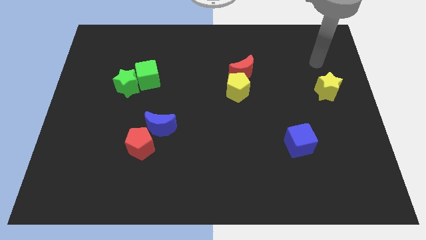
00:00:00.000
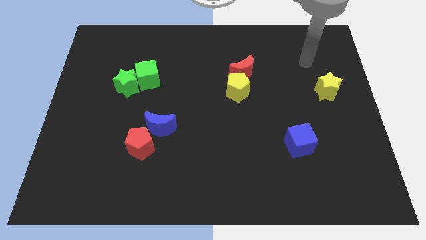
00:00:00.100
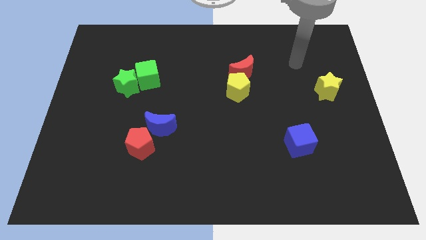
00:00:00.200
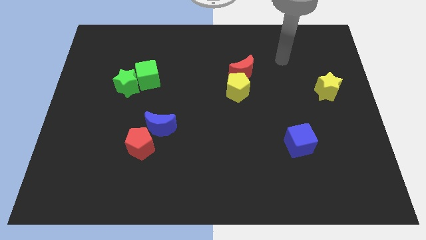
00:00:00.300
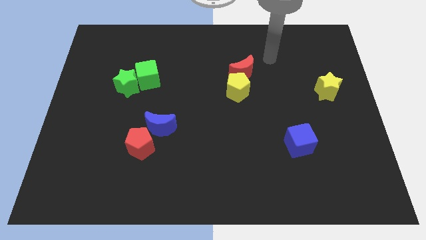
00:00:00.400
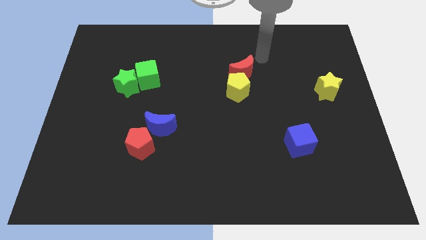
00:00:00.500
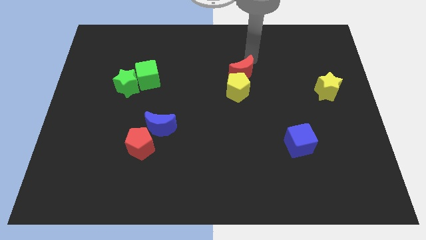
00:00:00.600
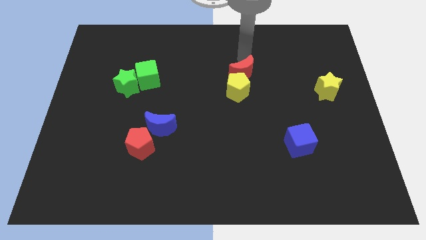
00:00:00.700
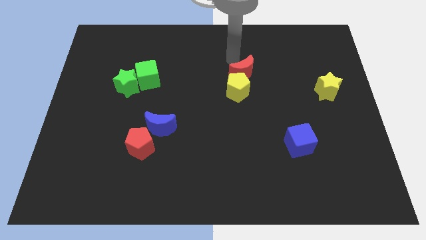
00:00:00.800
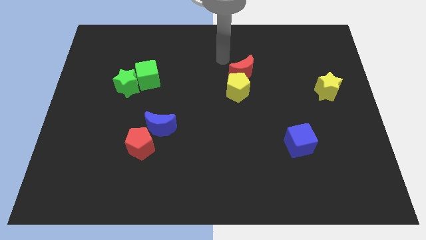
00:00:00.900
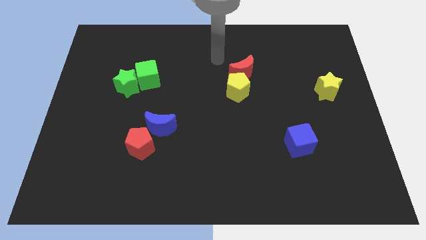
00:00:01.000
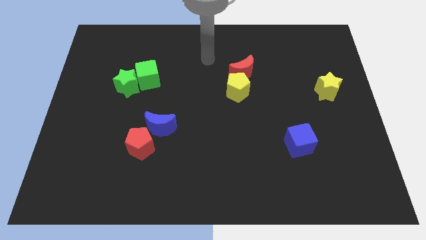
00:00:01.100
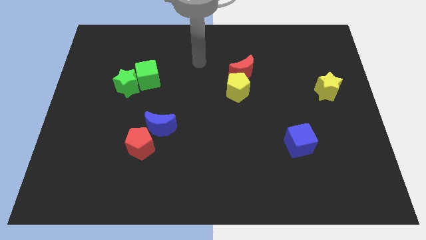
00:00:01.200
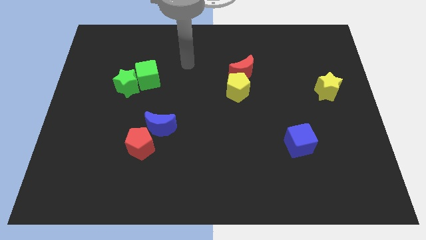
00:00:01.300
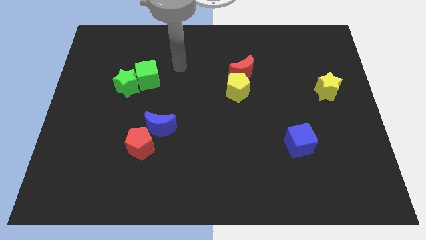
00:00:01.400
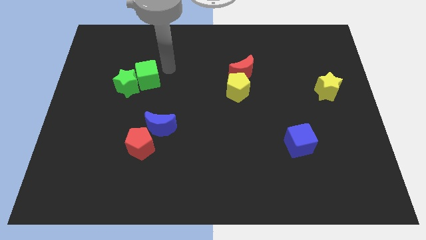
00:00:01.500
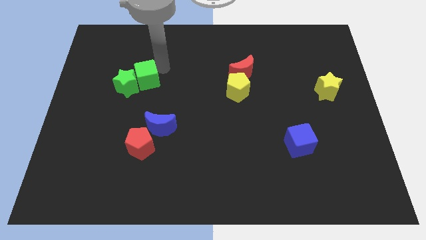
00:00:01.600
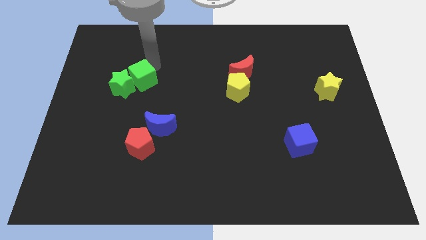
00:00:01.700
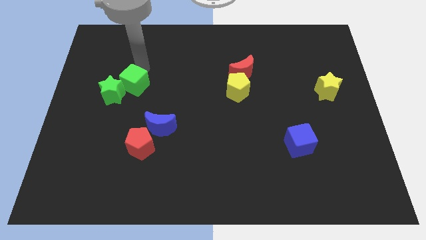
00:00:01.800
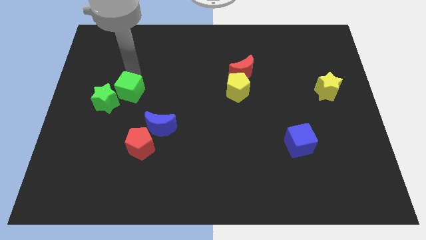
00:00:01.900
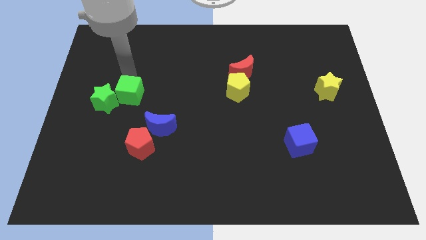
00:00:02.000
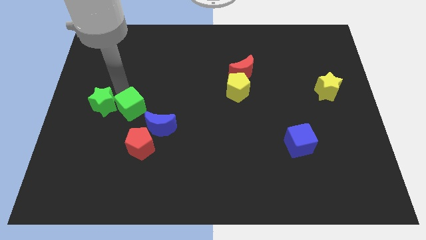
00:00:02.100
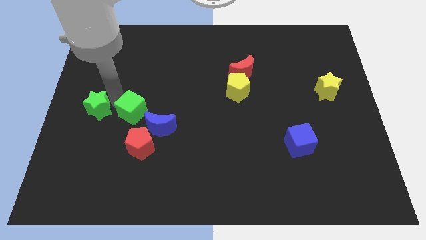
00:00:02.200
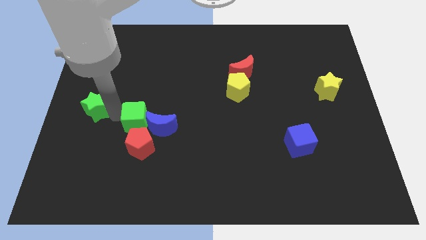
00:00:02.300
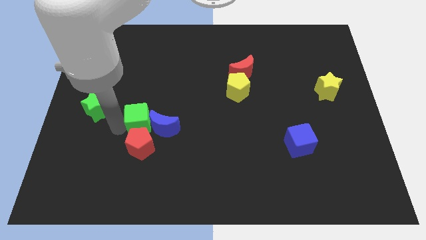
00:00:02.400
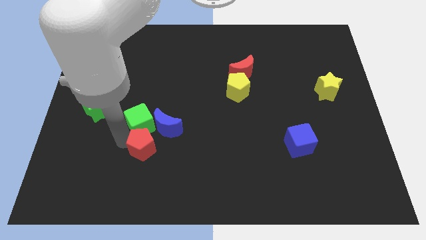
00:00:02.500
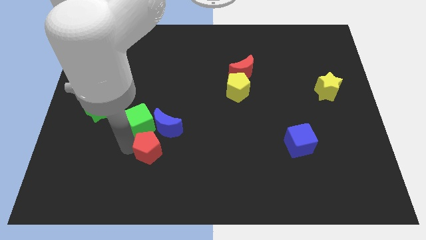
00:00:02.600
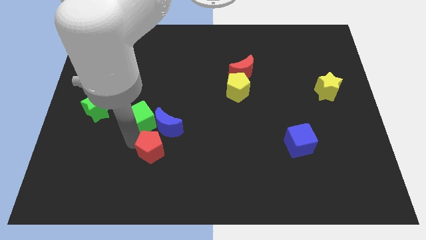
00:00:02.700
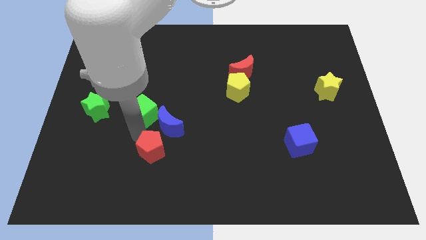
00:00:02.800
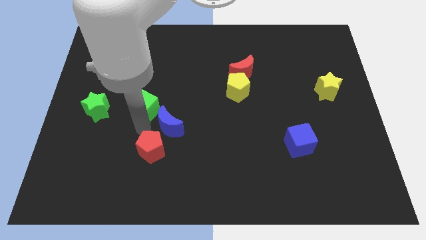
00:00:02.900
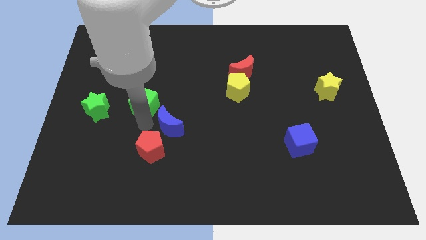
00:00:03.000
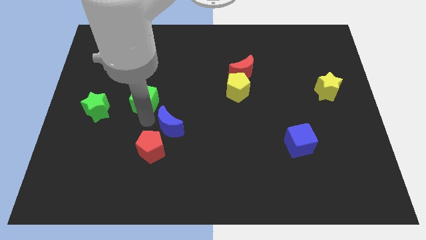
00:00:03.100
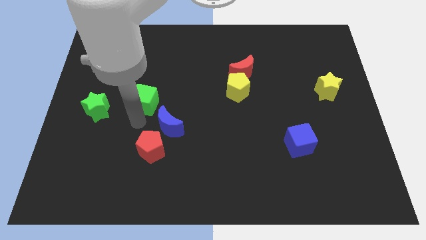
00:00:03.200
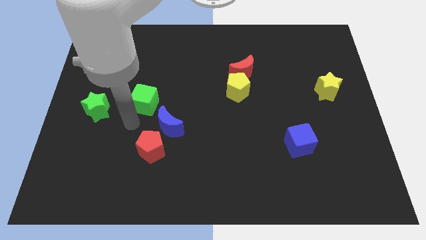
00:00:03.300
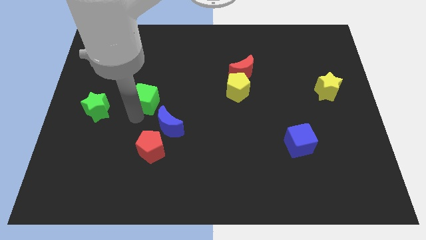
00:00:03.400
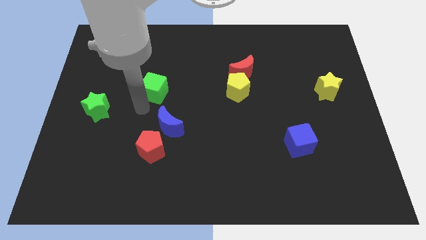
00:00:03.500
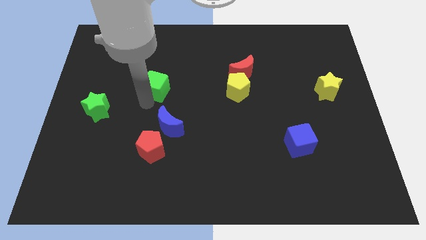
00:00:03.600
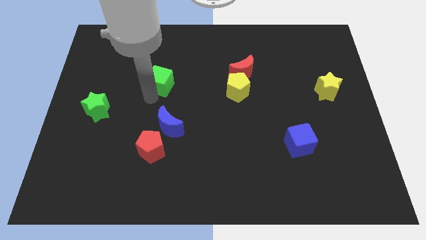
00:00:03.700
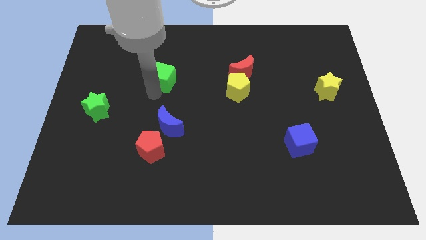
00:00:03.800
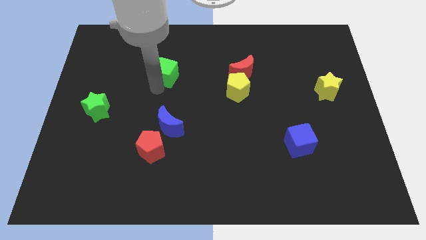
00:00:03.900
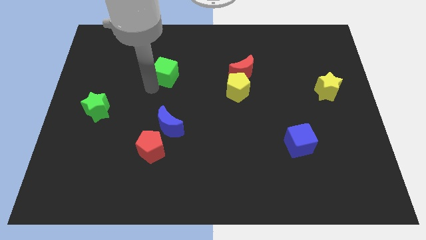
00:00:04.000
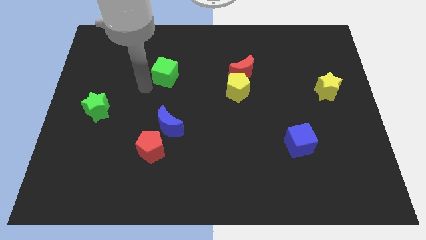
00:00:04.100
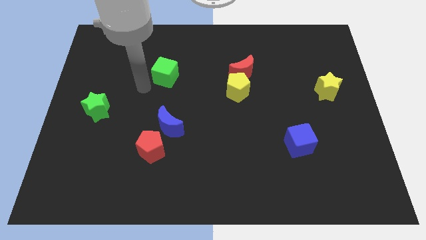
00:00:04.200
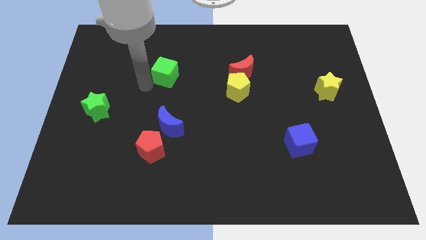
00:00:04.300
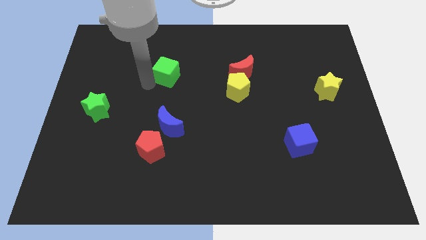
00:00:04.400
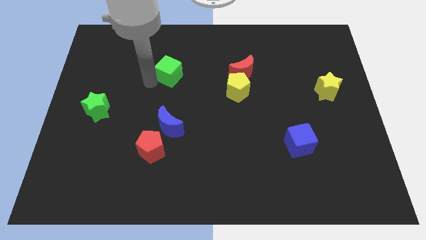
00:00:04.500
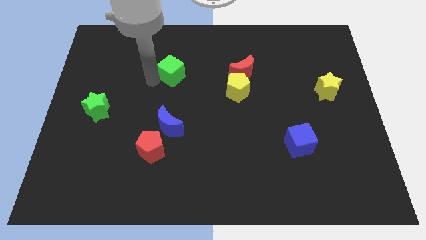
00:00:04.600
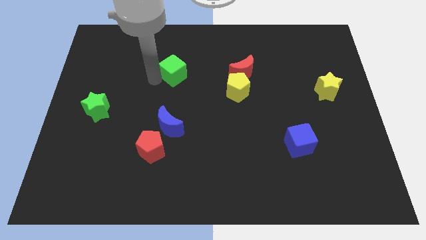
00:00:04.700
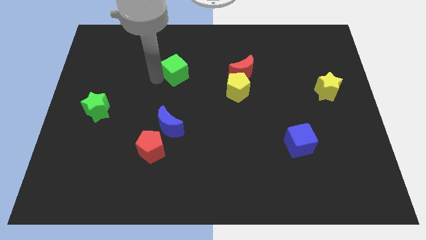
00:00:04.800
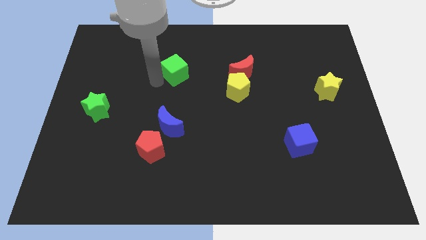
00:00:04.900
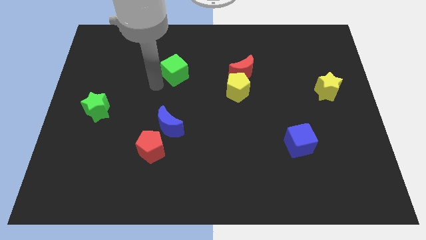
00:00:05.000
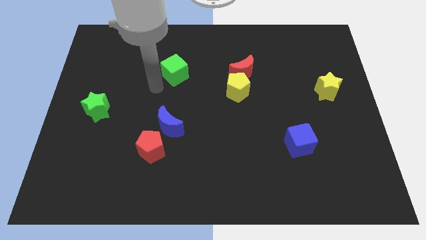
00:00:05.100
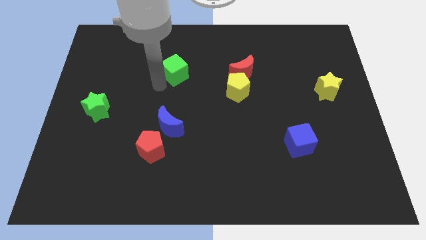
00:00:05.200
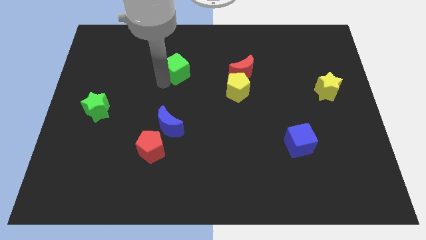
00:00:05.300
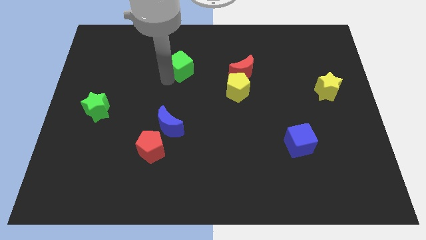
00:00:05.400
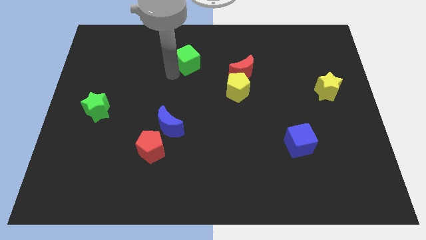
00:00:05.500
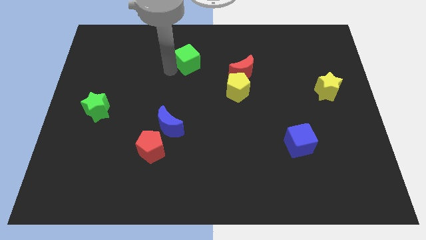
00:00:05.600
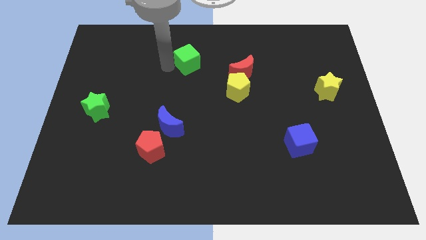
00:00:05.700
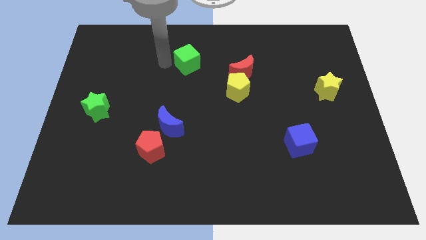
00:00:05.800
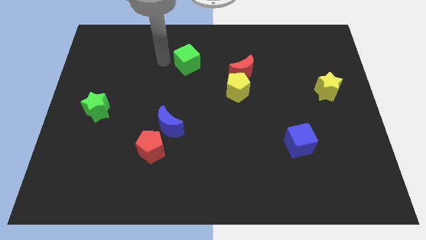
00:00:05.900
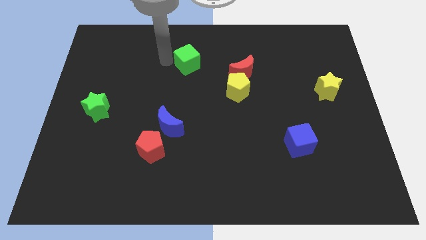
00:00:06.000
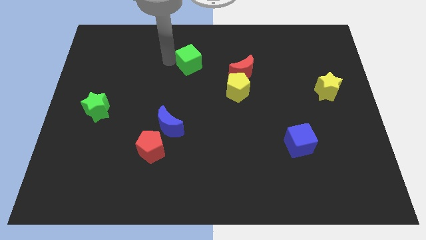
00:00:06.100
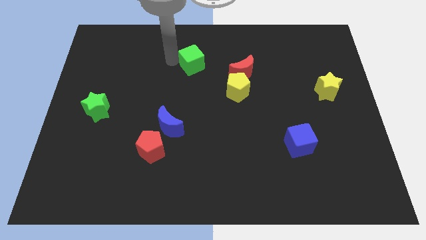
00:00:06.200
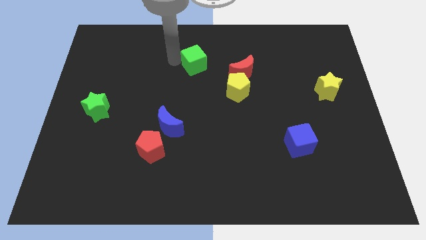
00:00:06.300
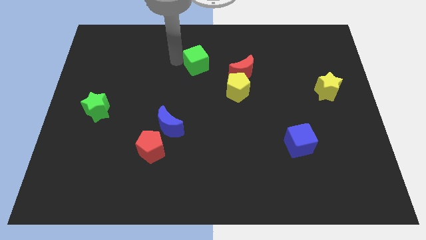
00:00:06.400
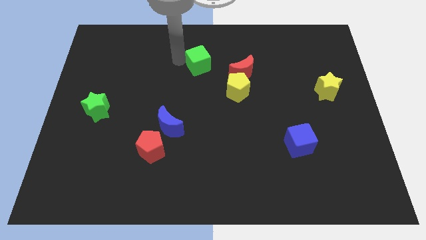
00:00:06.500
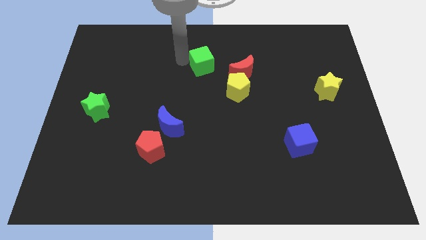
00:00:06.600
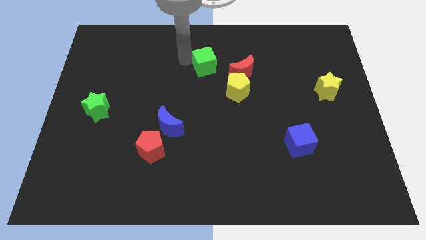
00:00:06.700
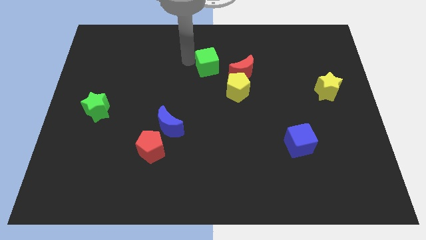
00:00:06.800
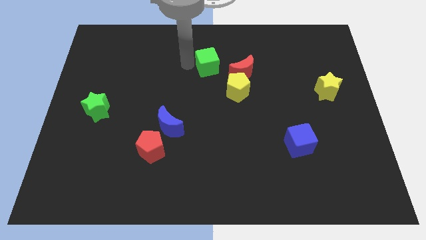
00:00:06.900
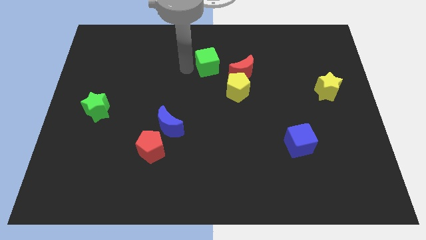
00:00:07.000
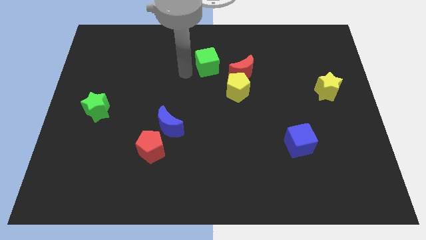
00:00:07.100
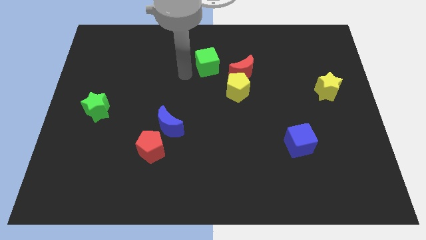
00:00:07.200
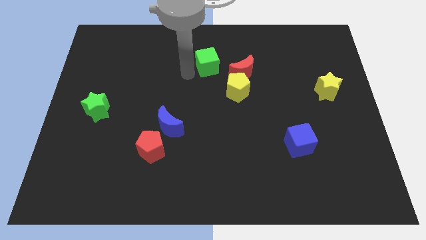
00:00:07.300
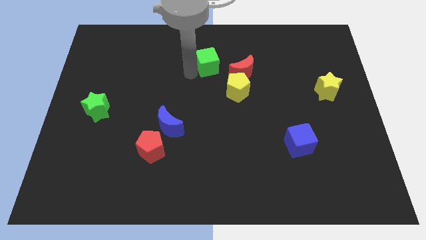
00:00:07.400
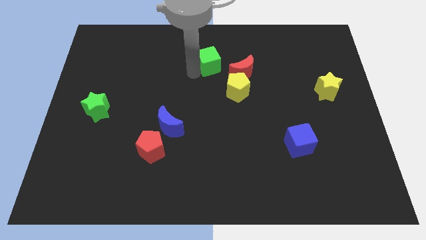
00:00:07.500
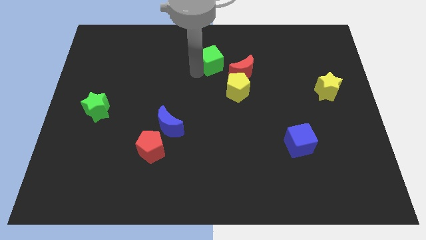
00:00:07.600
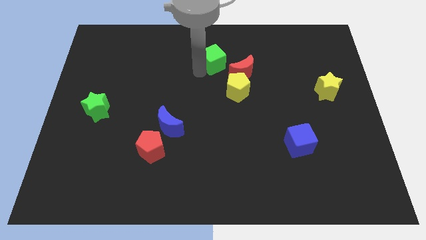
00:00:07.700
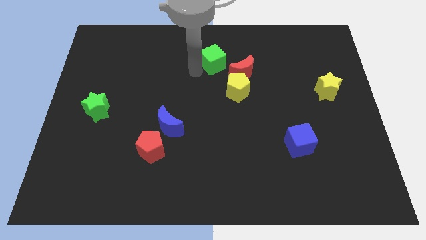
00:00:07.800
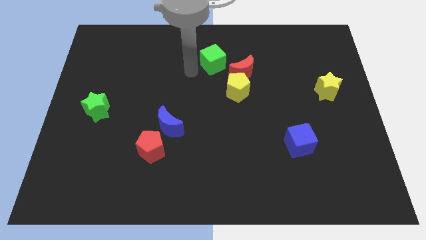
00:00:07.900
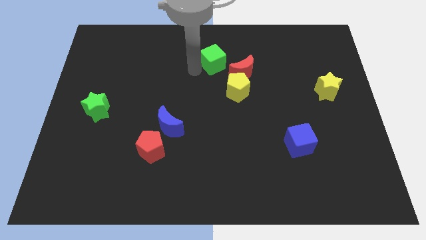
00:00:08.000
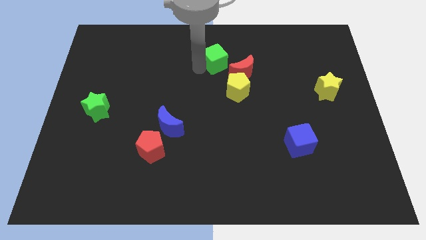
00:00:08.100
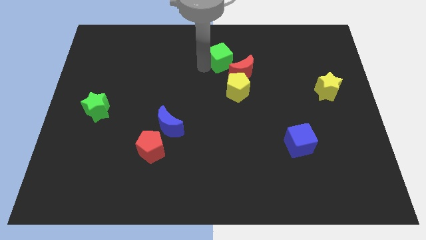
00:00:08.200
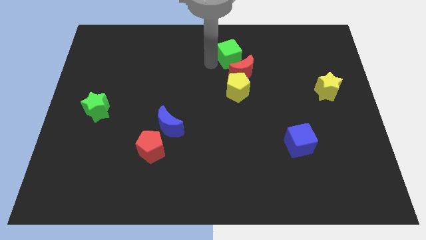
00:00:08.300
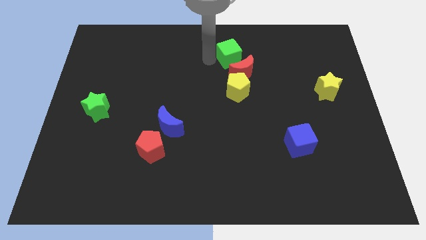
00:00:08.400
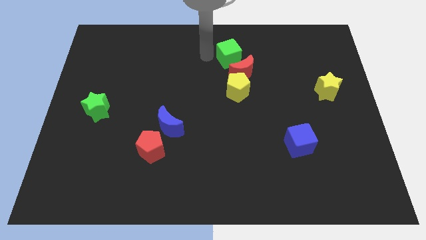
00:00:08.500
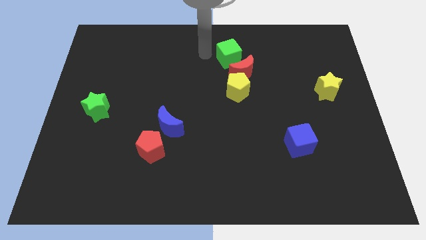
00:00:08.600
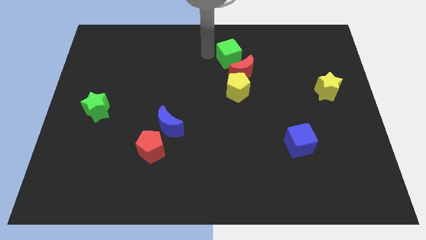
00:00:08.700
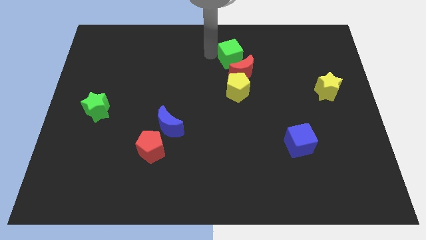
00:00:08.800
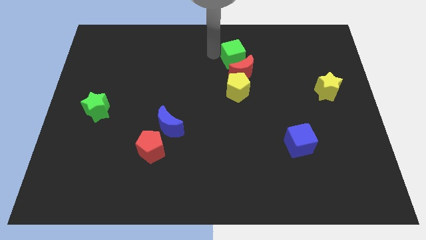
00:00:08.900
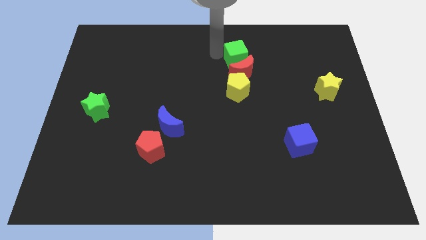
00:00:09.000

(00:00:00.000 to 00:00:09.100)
push the green cube right
